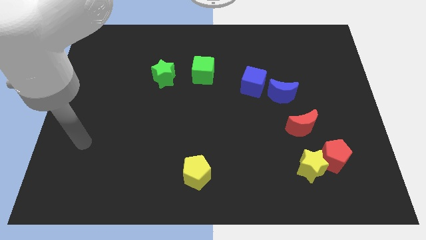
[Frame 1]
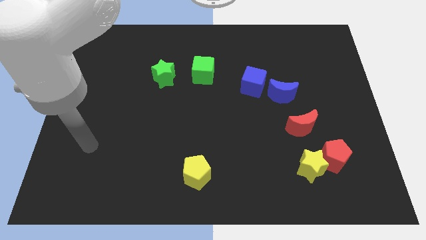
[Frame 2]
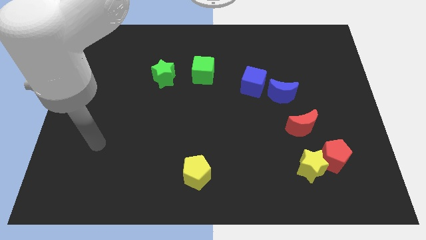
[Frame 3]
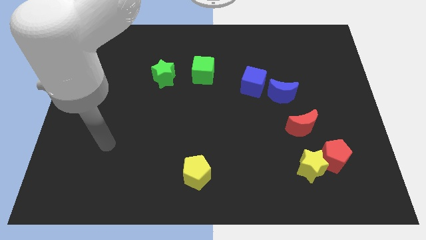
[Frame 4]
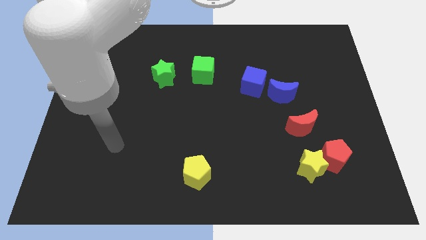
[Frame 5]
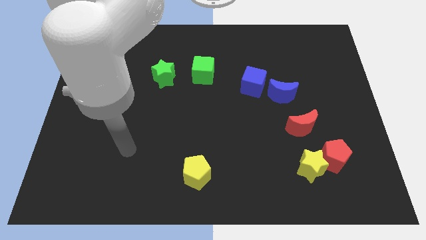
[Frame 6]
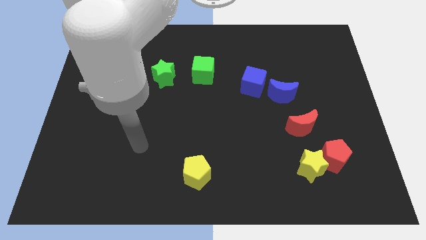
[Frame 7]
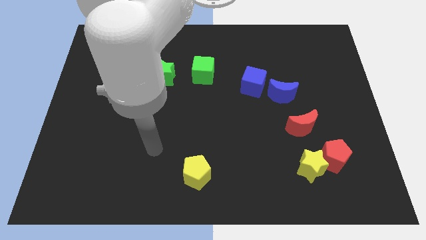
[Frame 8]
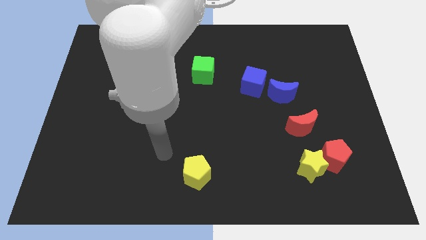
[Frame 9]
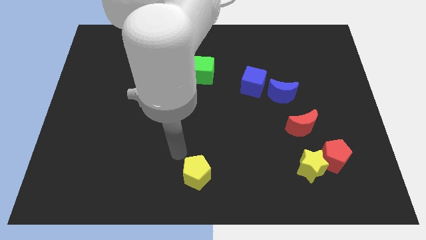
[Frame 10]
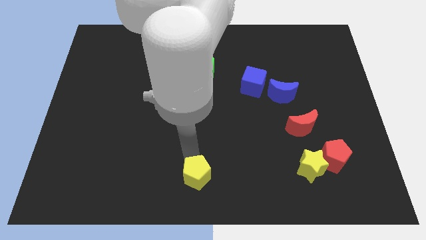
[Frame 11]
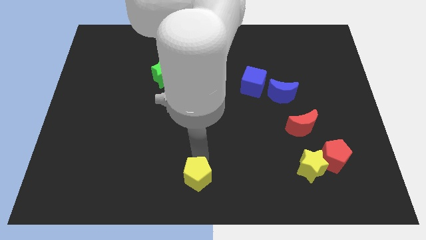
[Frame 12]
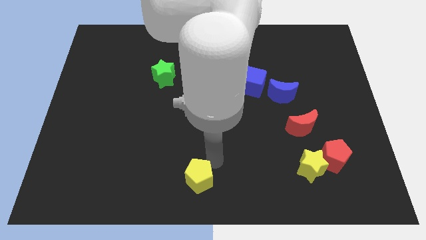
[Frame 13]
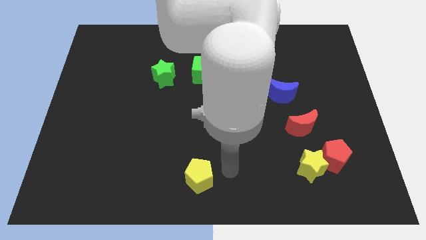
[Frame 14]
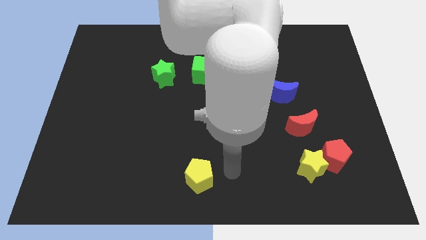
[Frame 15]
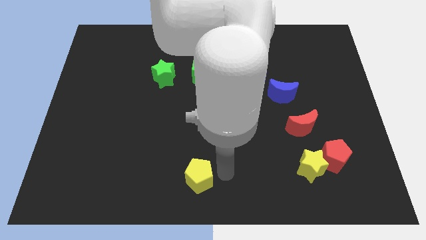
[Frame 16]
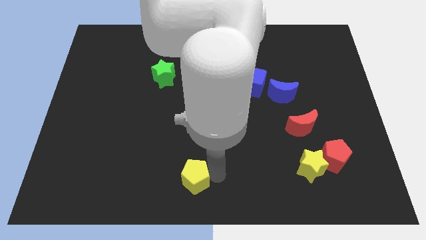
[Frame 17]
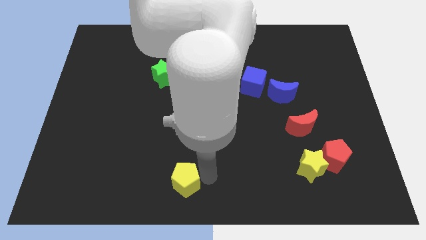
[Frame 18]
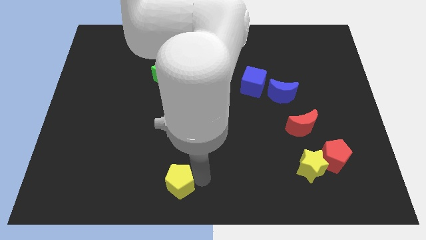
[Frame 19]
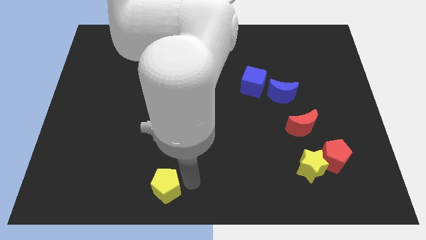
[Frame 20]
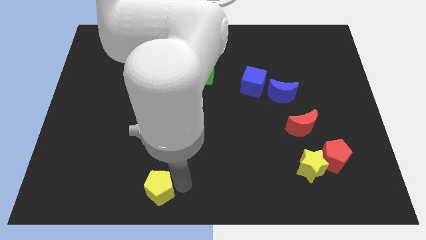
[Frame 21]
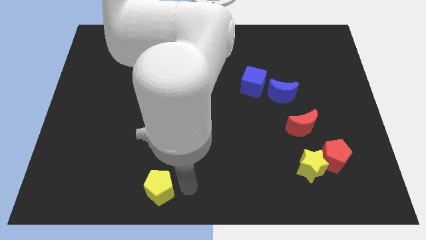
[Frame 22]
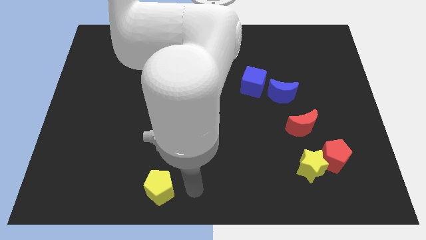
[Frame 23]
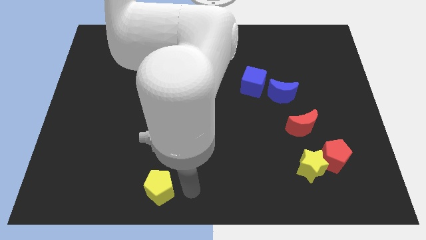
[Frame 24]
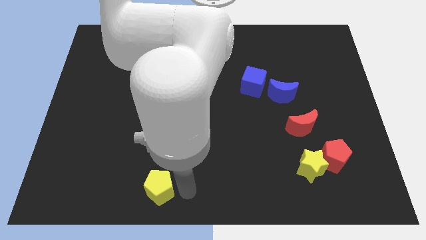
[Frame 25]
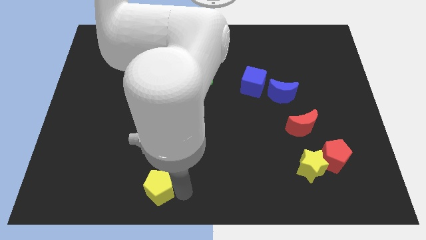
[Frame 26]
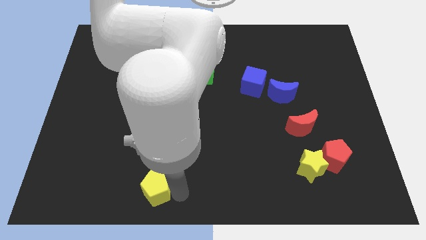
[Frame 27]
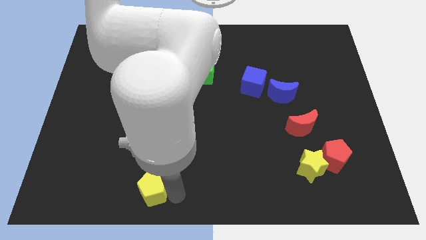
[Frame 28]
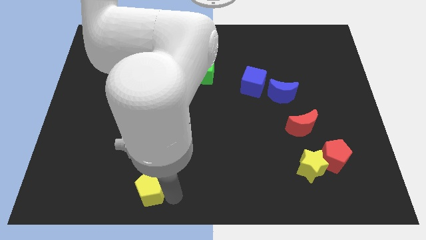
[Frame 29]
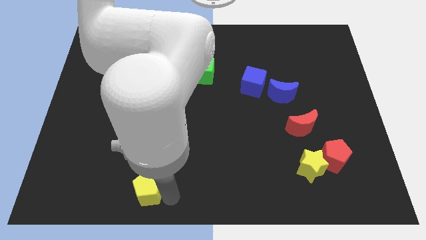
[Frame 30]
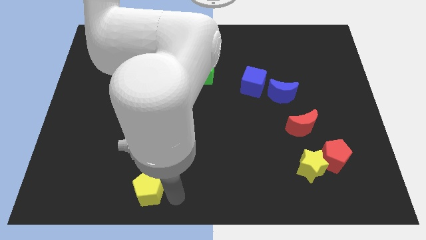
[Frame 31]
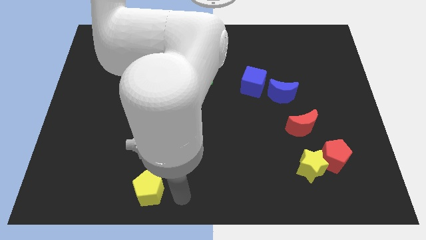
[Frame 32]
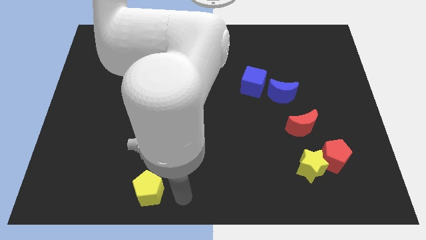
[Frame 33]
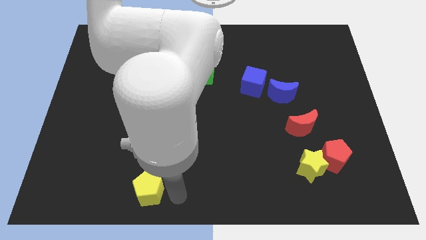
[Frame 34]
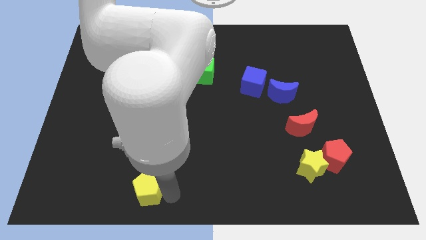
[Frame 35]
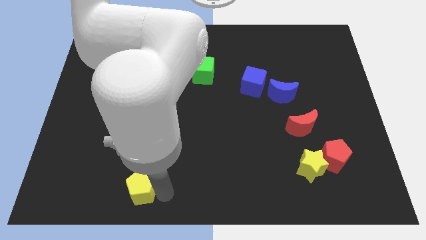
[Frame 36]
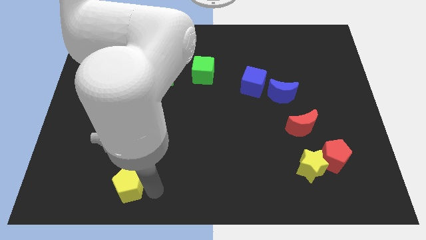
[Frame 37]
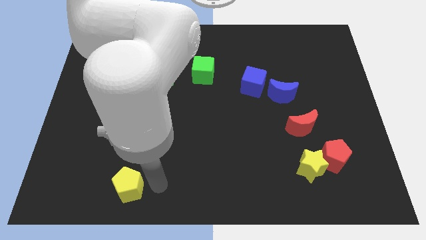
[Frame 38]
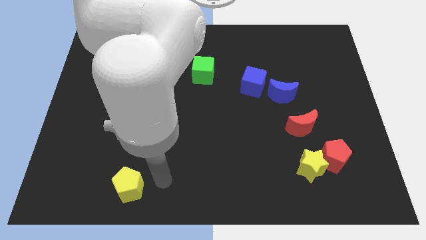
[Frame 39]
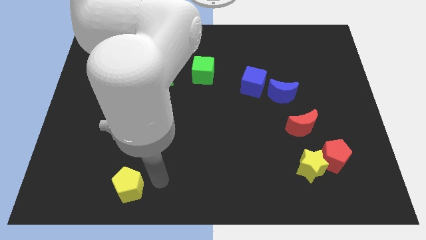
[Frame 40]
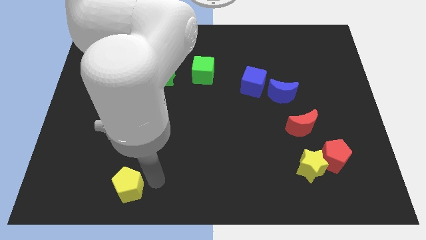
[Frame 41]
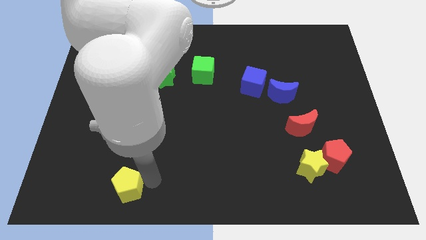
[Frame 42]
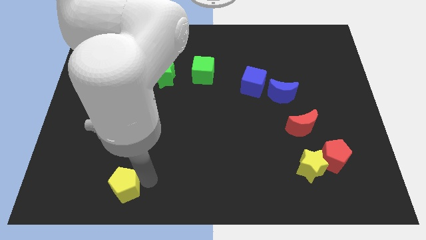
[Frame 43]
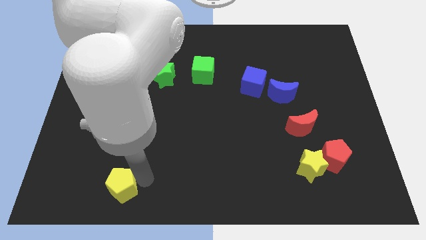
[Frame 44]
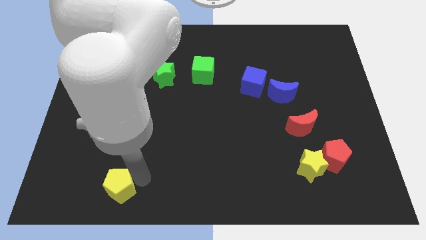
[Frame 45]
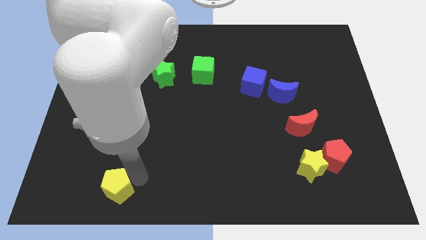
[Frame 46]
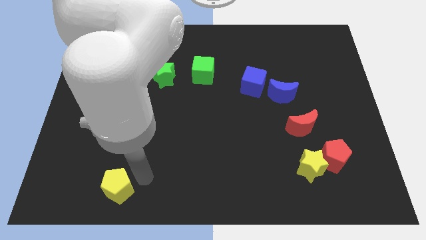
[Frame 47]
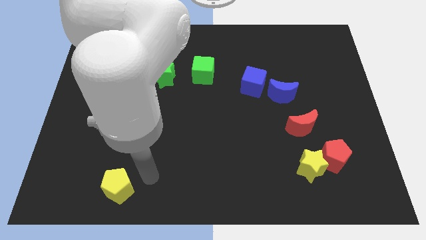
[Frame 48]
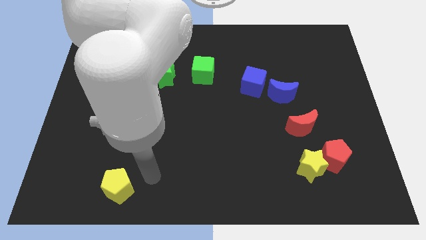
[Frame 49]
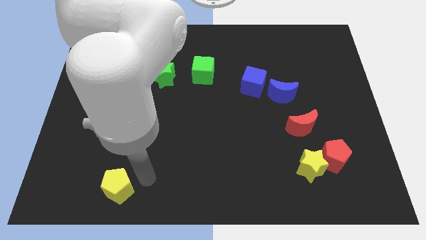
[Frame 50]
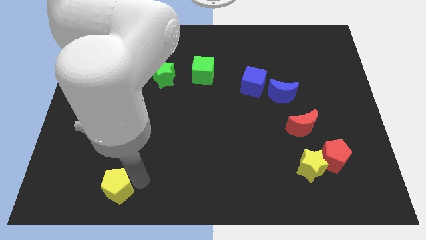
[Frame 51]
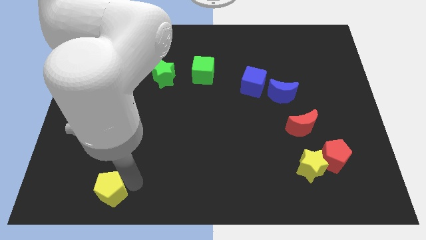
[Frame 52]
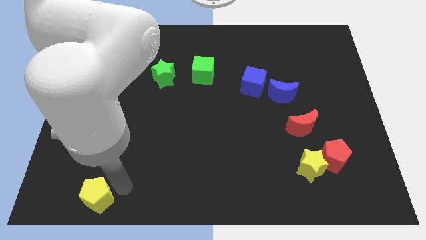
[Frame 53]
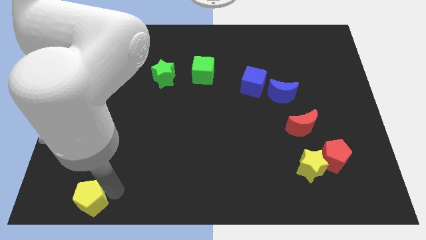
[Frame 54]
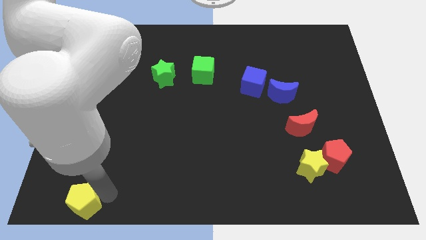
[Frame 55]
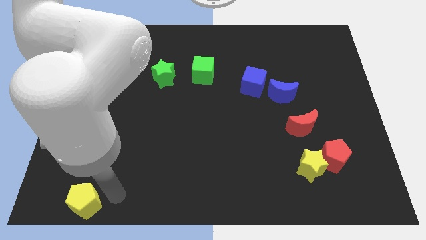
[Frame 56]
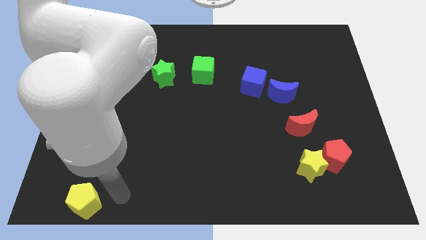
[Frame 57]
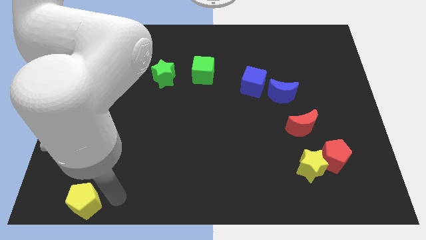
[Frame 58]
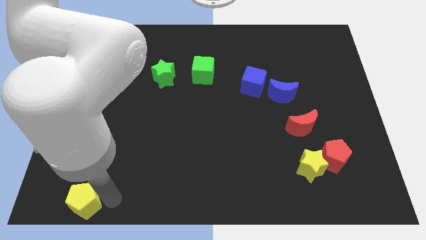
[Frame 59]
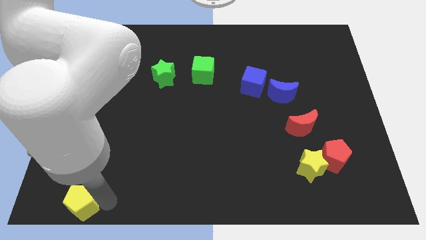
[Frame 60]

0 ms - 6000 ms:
slide the yellow pentagon to the bottom left corner
